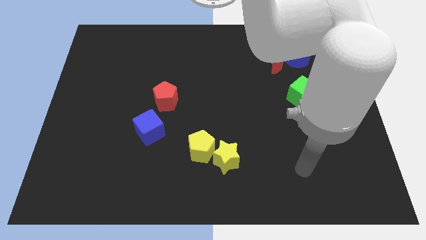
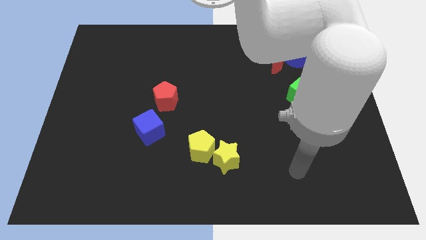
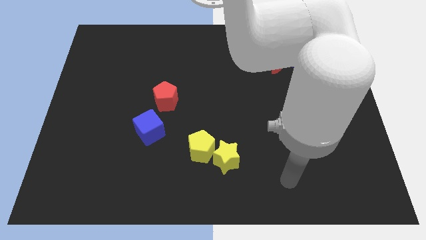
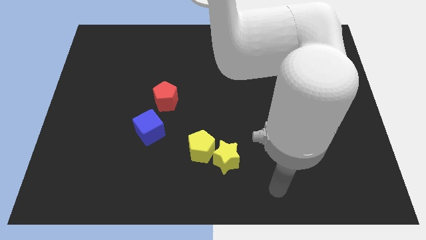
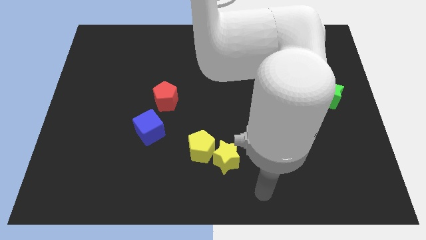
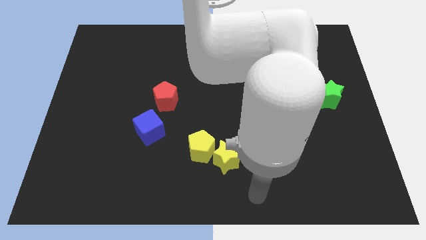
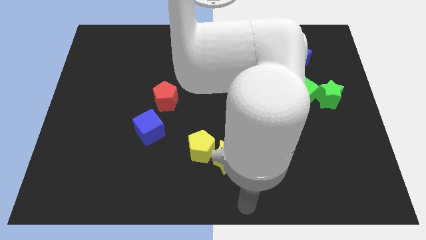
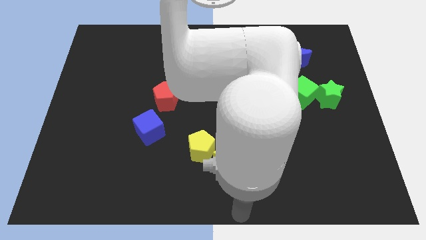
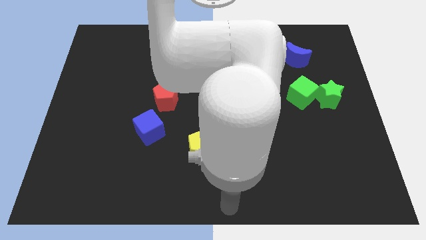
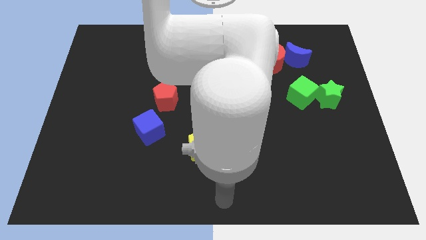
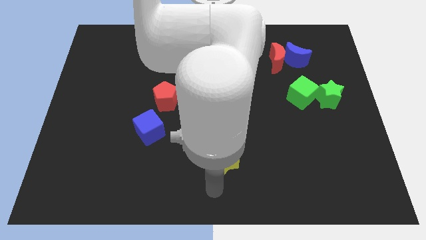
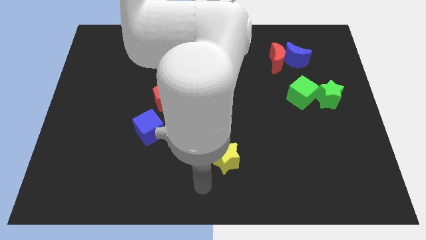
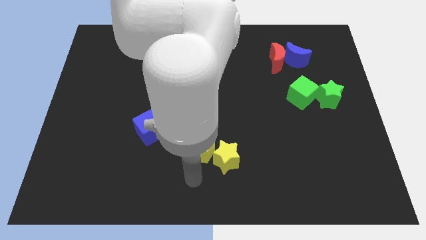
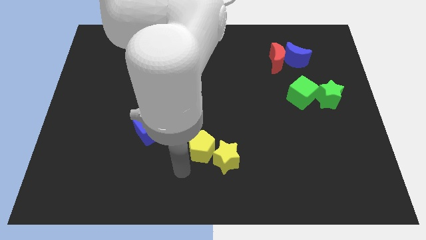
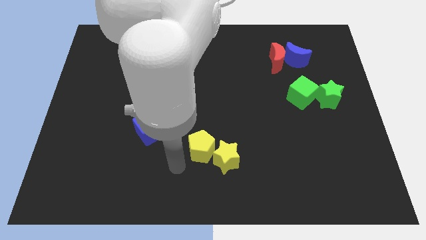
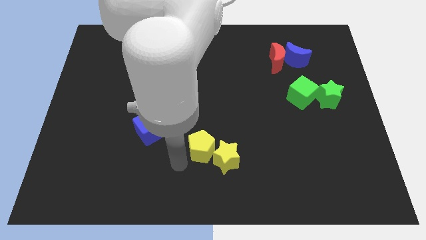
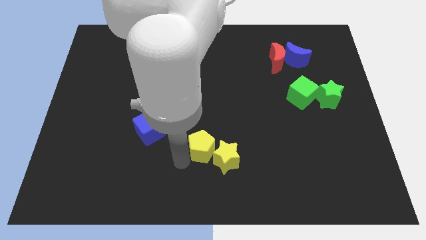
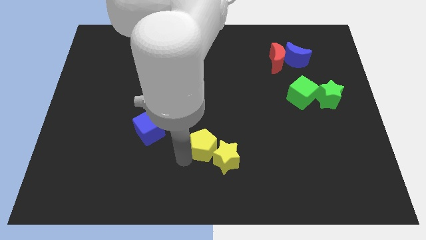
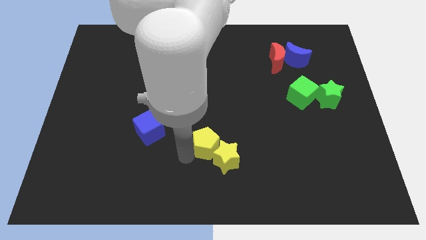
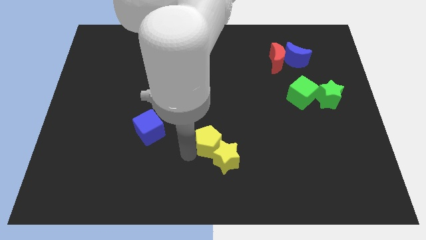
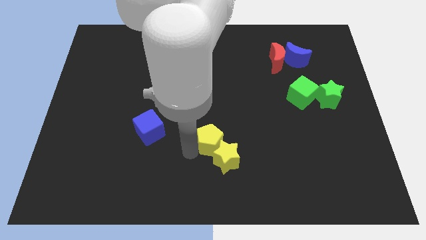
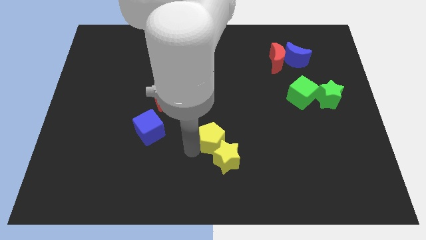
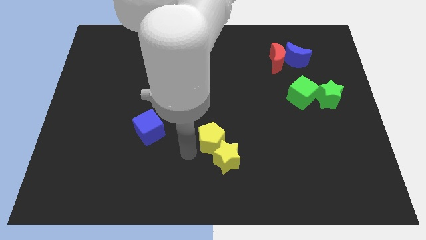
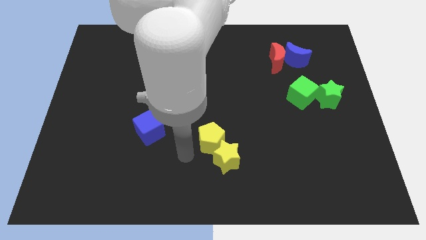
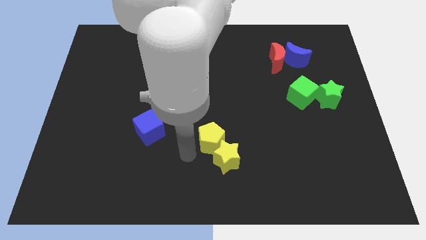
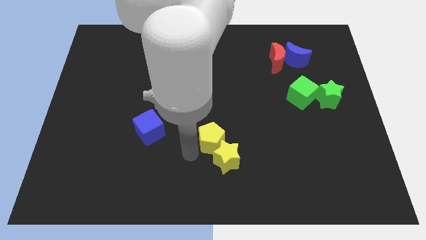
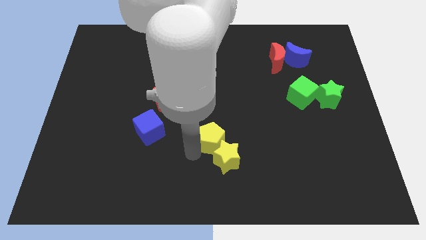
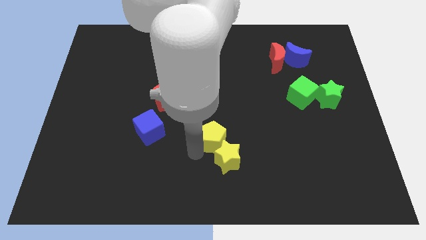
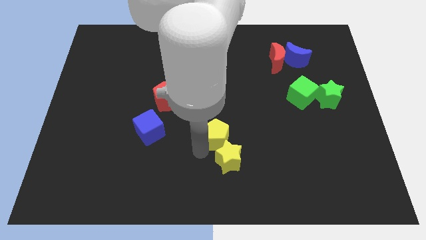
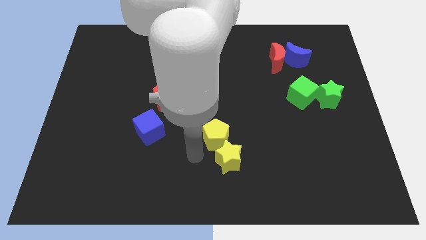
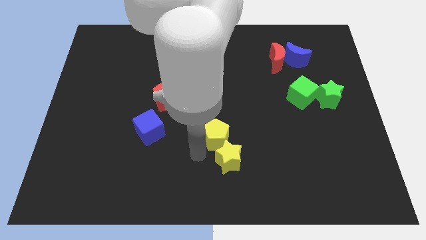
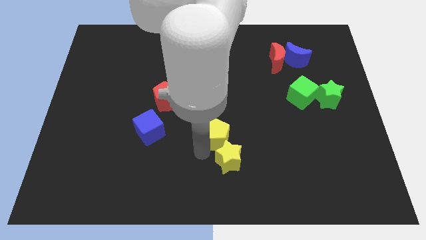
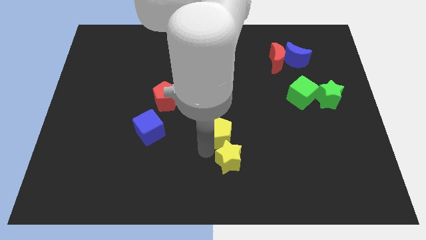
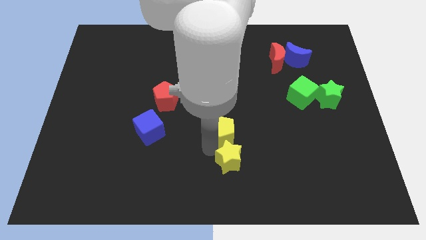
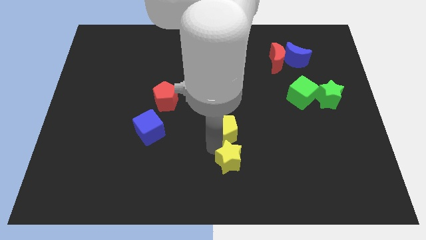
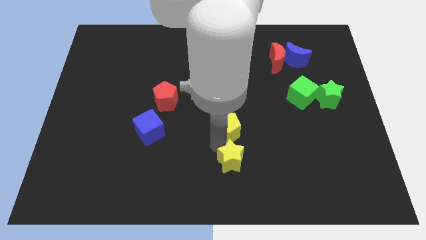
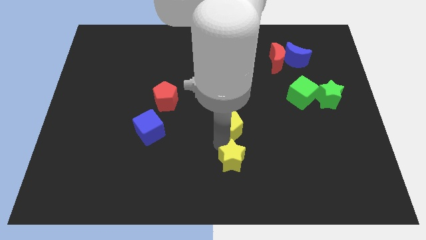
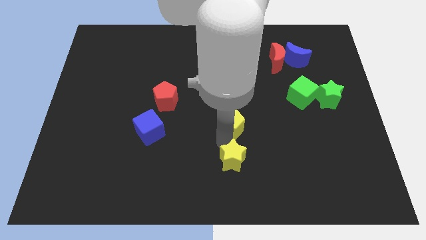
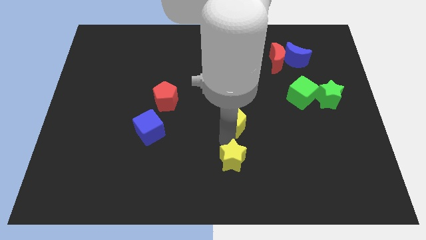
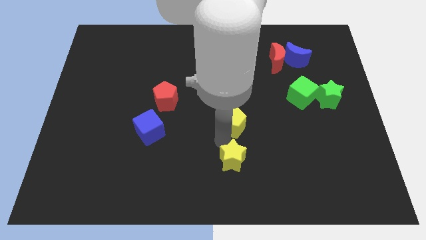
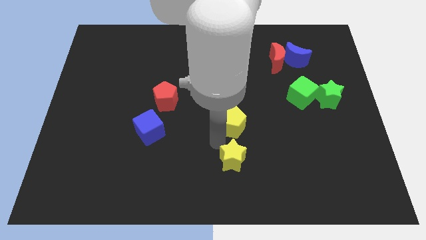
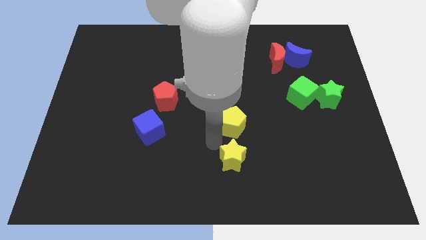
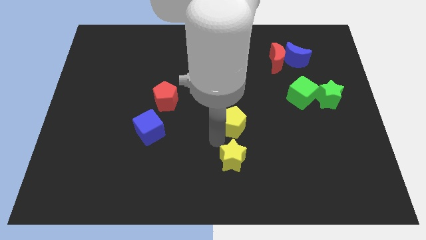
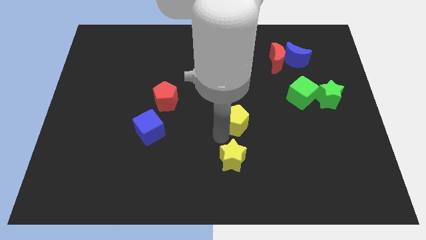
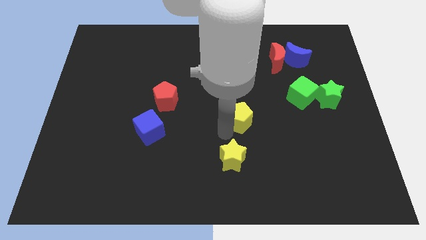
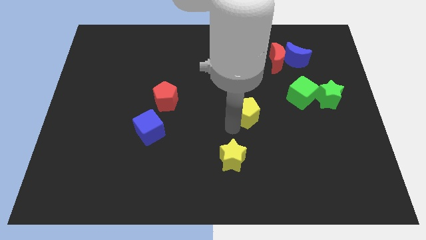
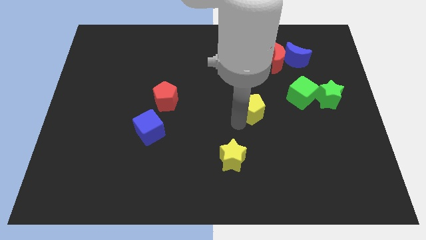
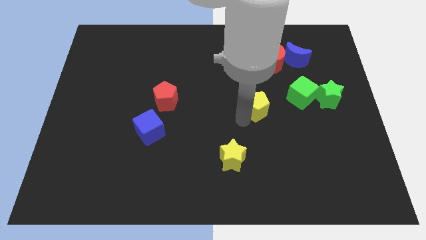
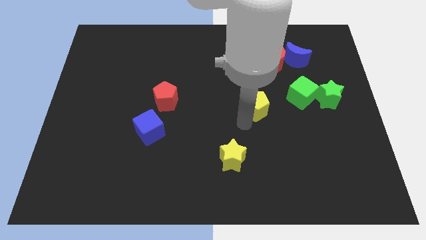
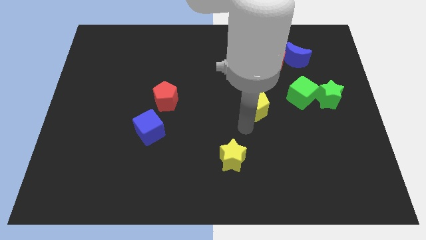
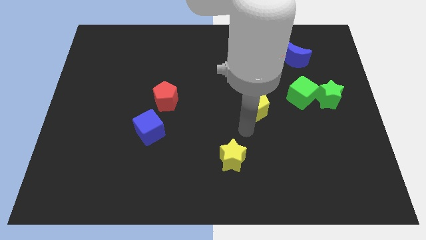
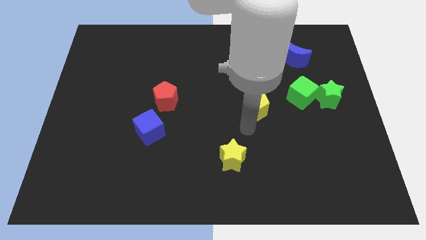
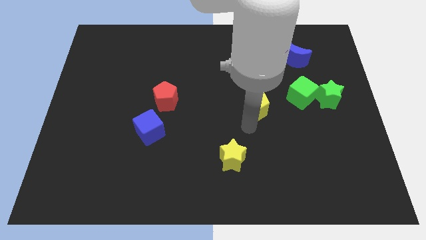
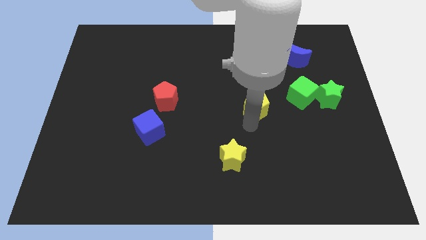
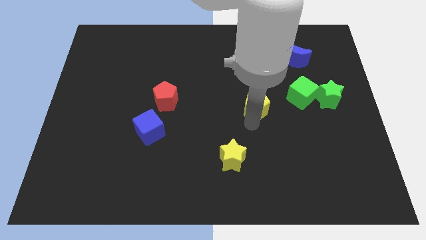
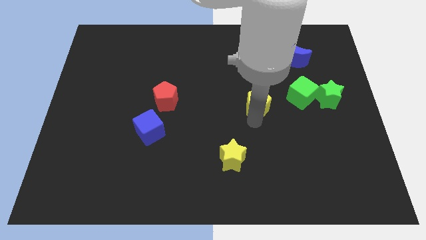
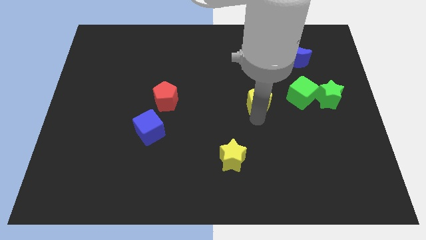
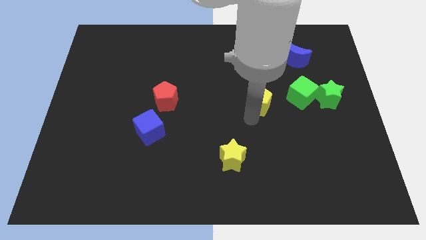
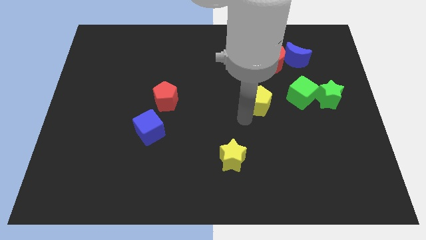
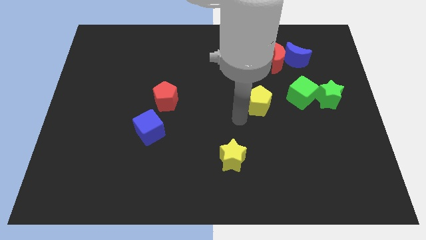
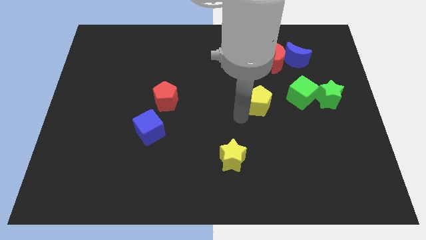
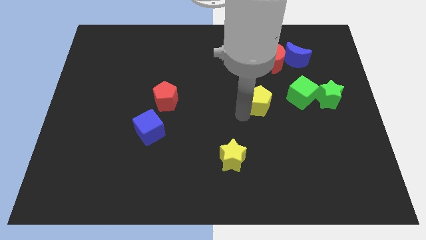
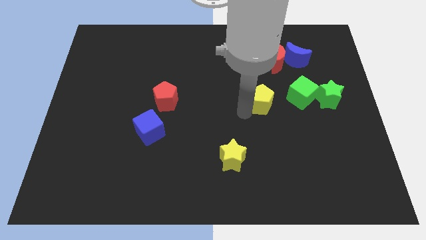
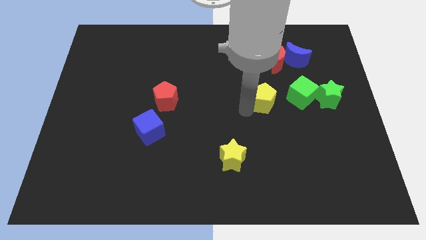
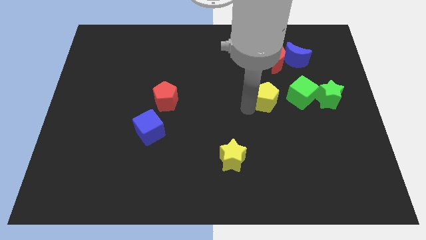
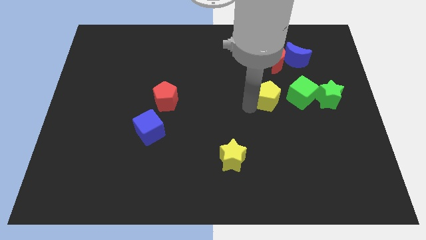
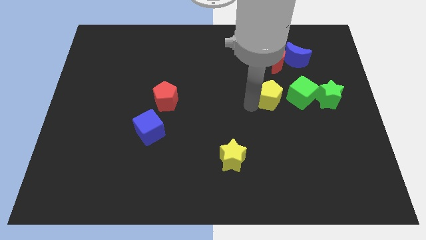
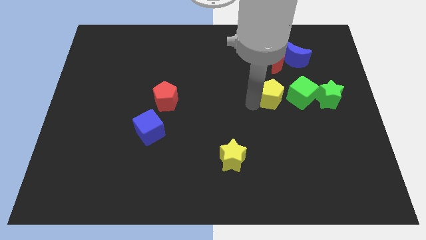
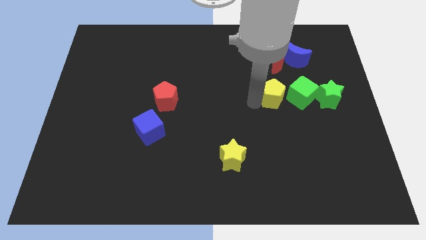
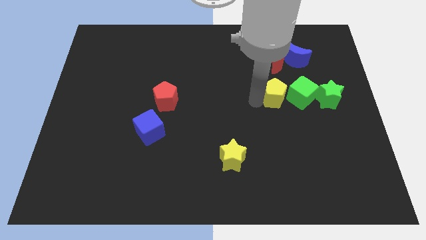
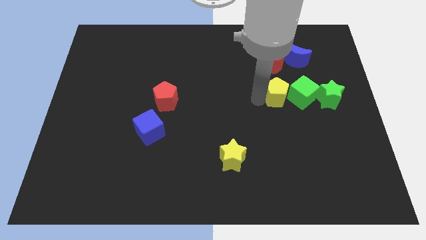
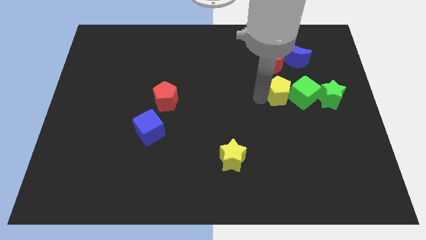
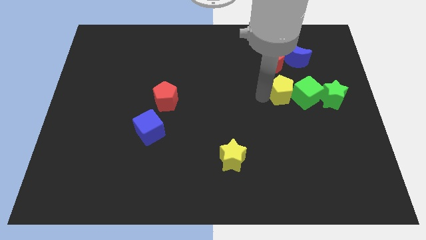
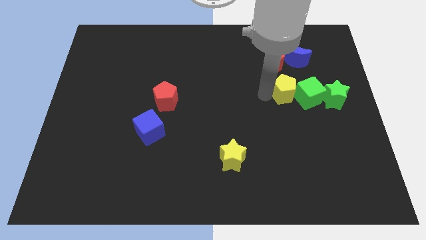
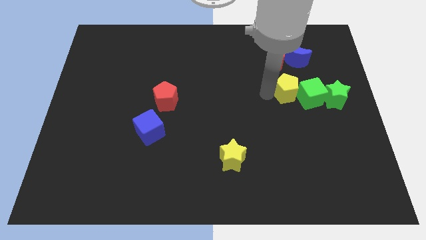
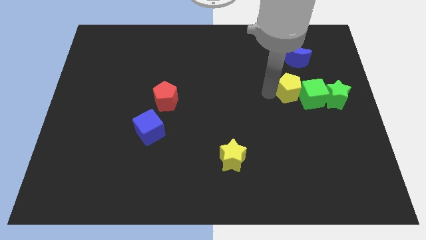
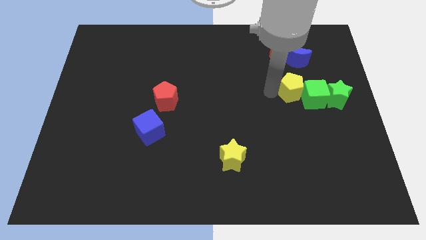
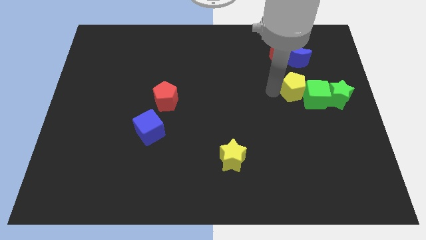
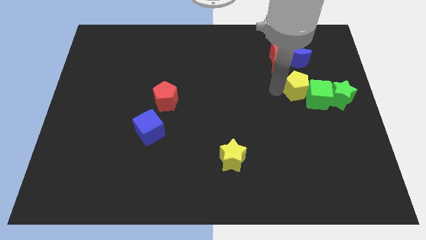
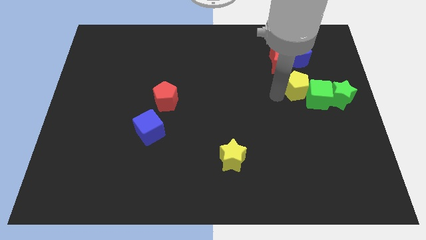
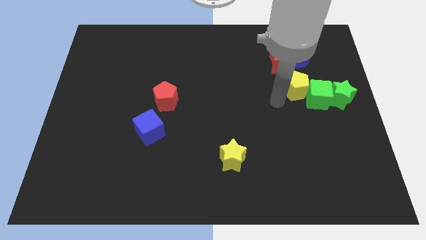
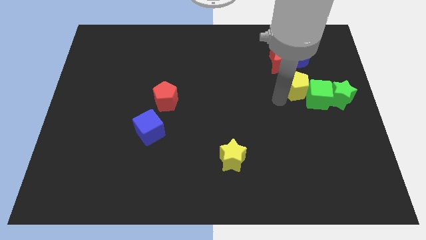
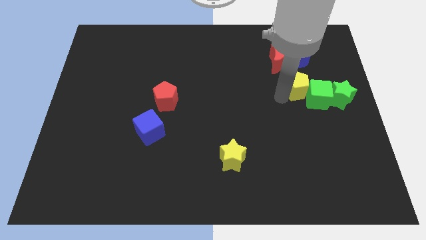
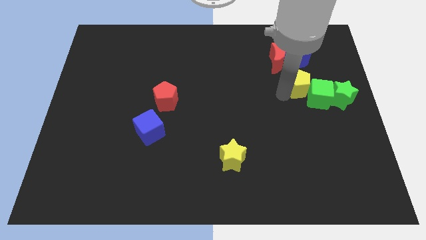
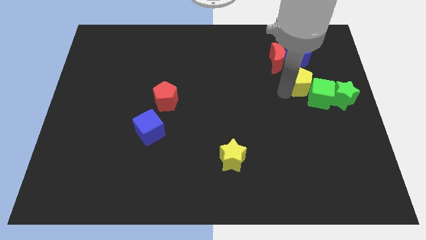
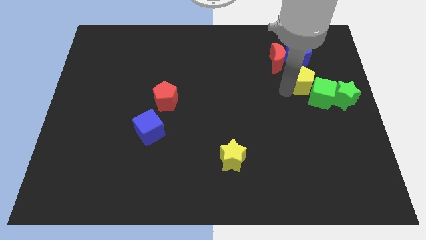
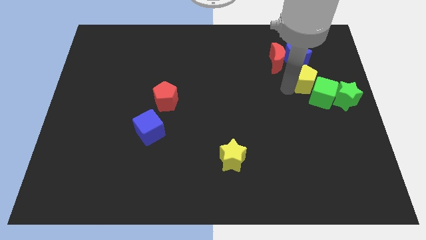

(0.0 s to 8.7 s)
push the yellow pentagon to the bottom right of the blue moon
